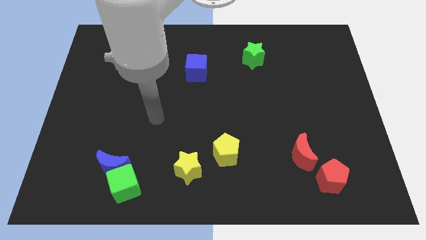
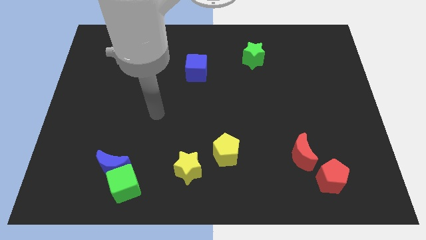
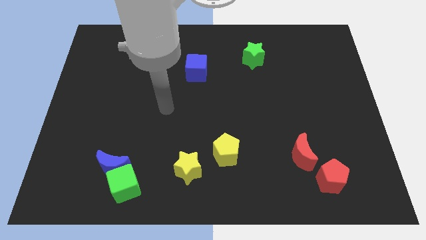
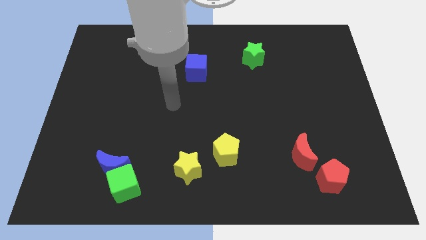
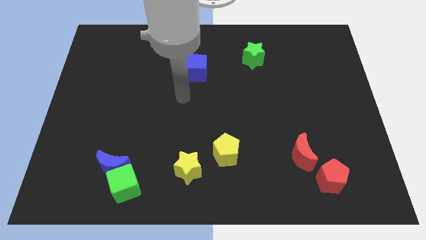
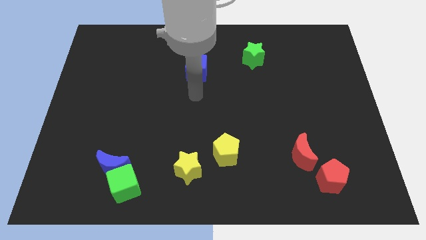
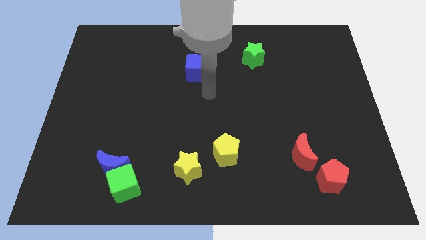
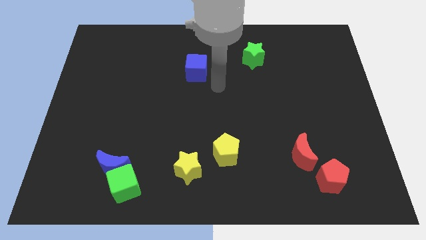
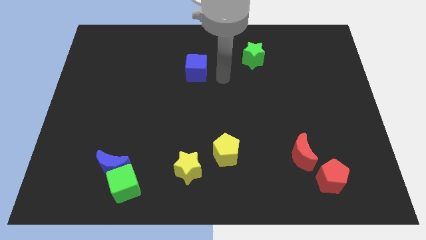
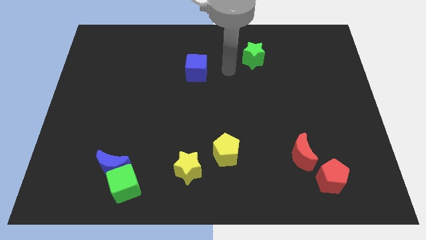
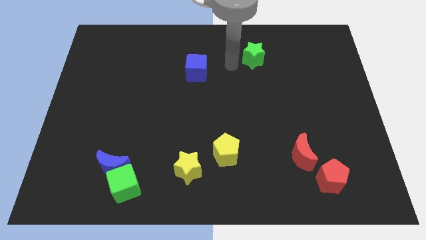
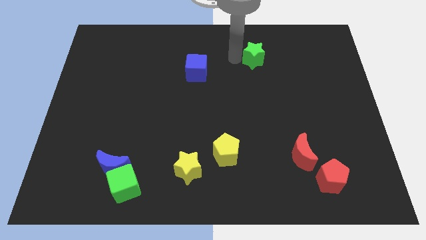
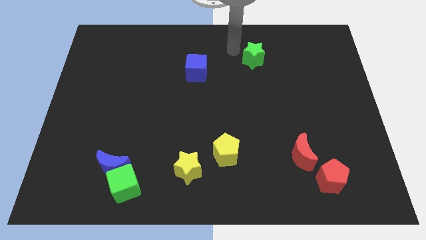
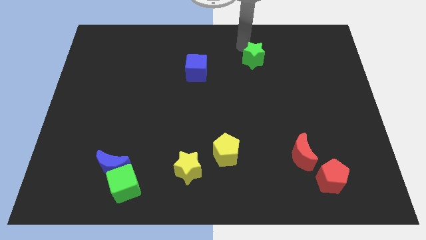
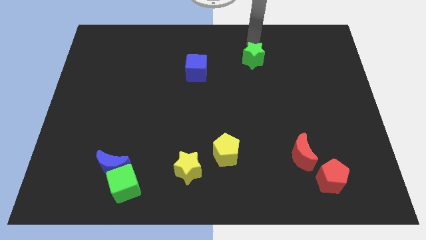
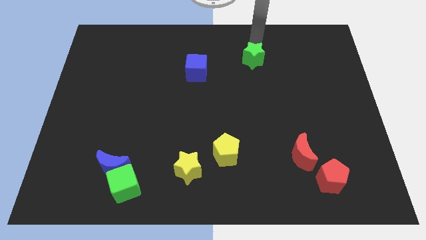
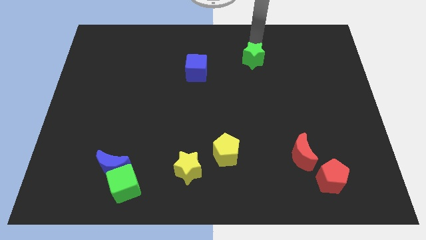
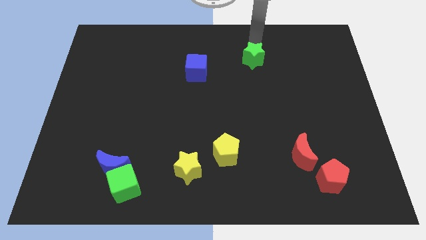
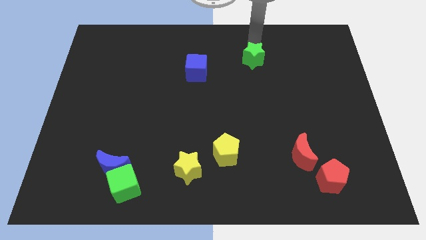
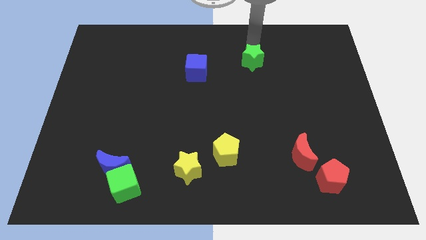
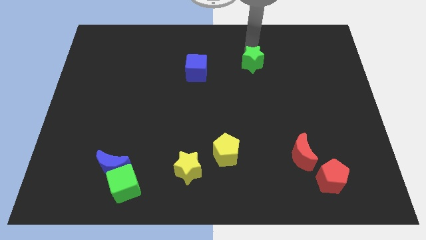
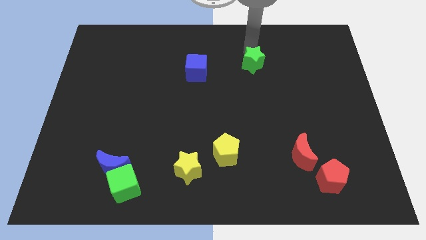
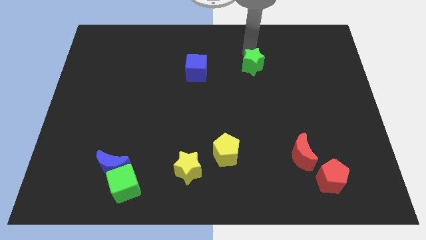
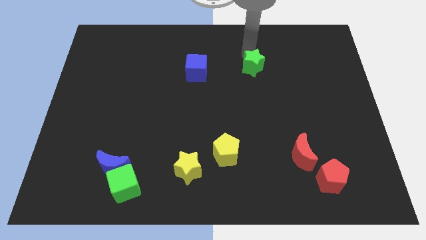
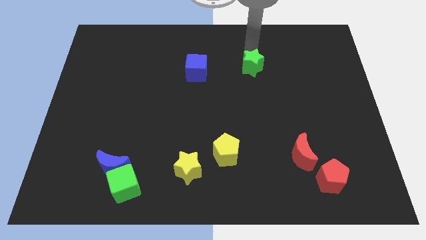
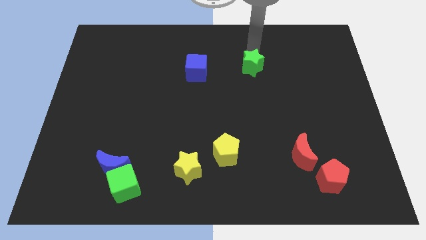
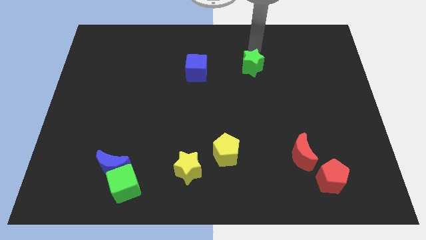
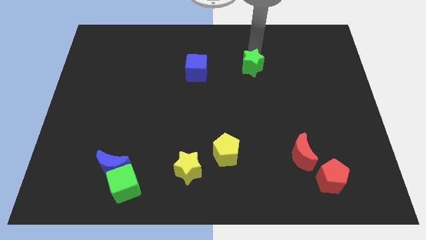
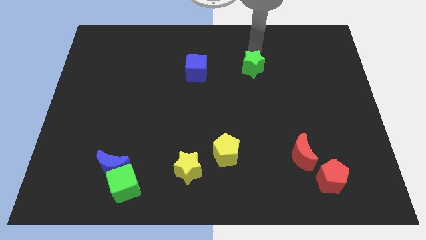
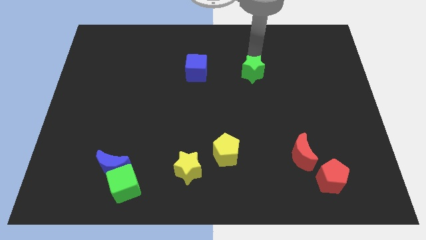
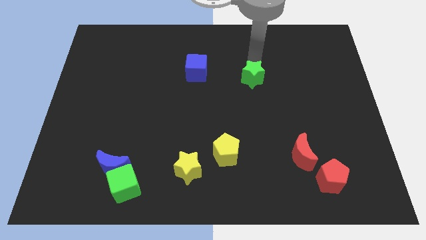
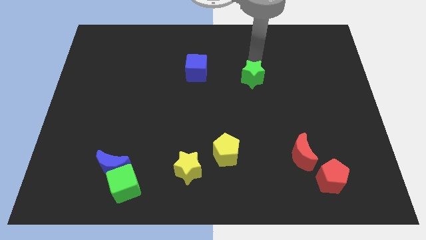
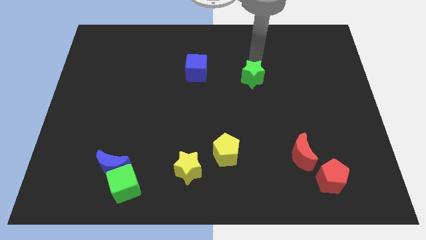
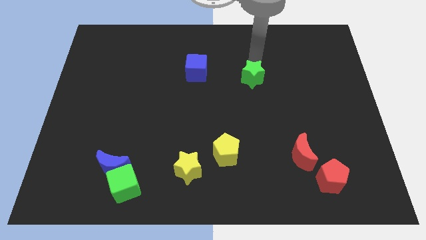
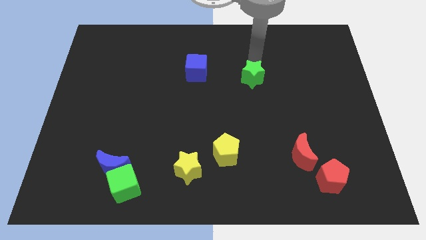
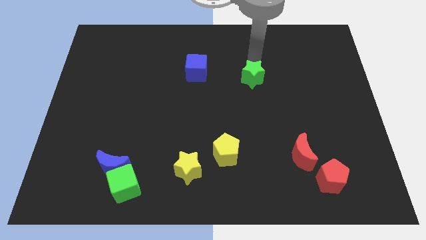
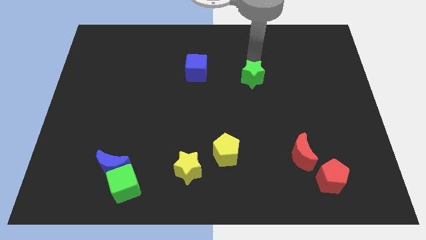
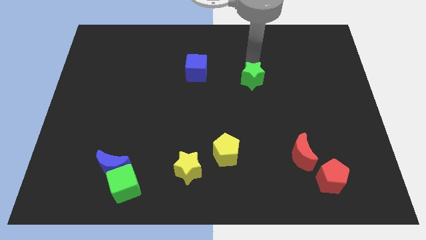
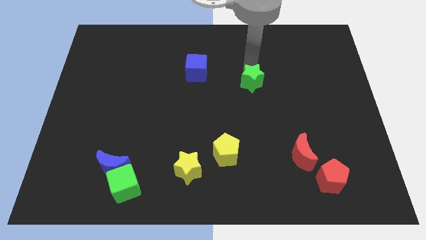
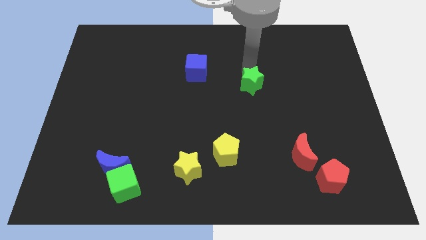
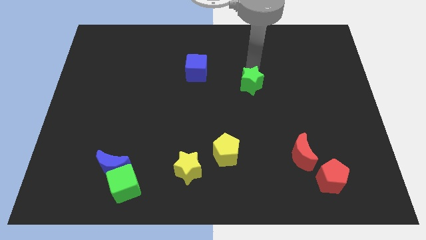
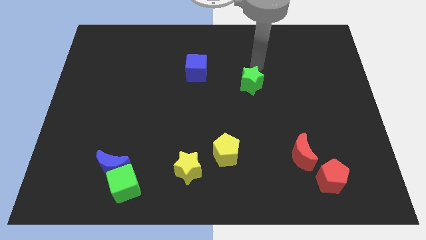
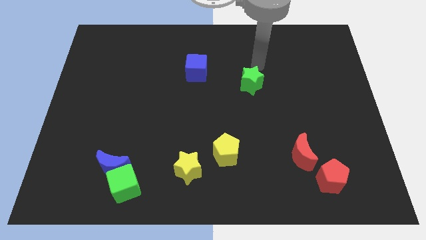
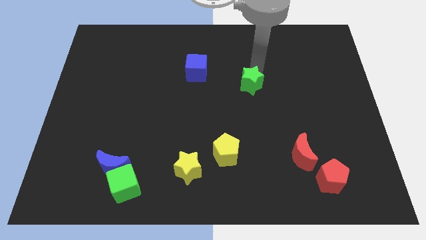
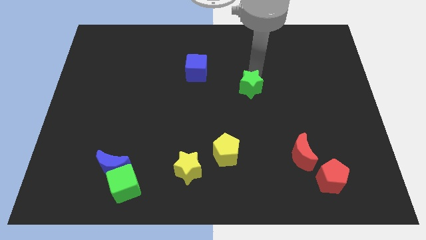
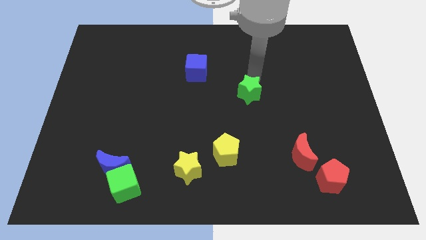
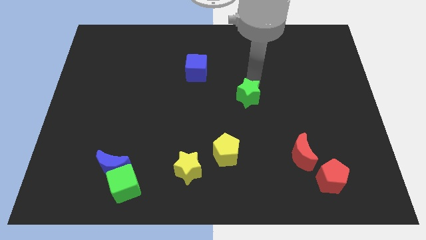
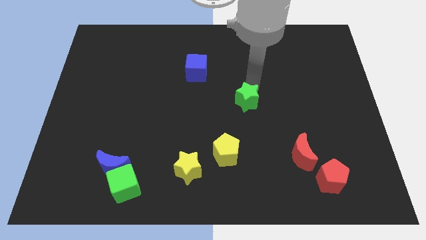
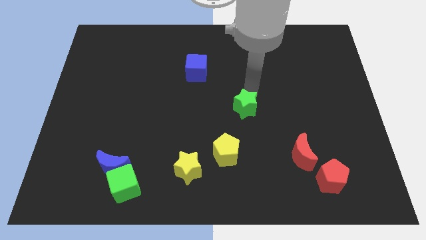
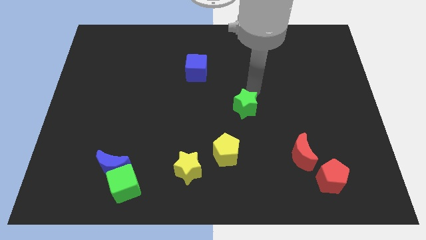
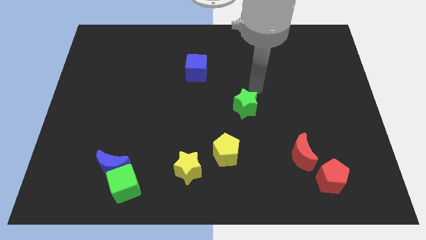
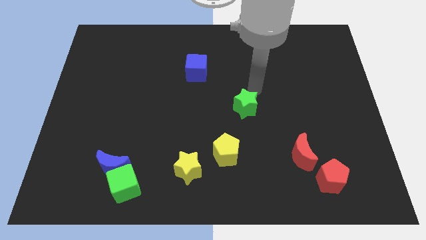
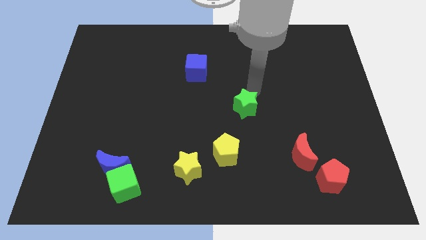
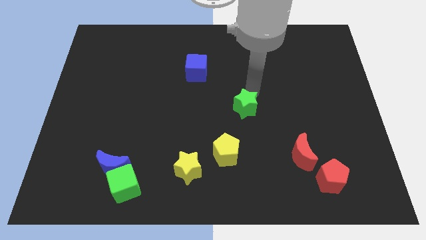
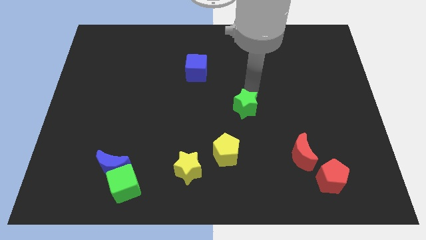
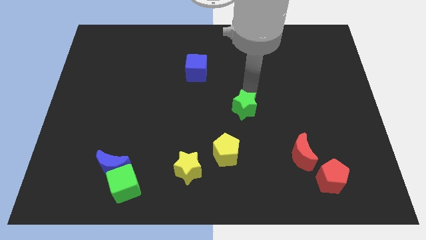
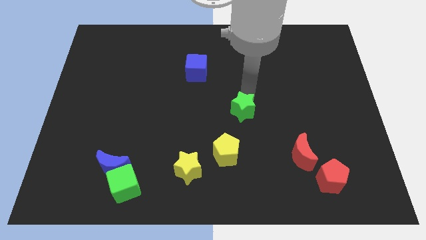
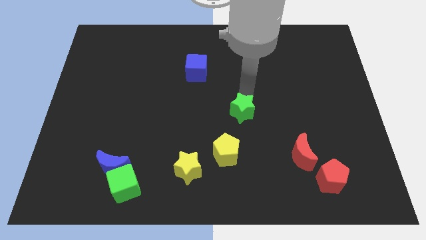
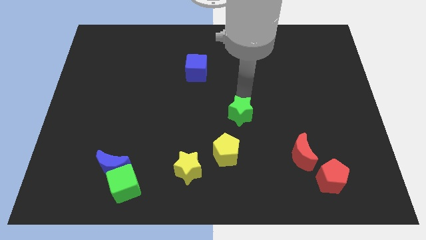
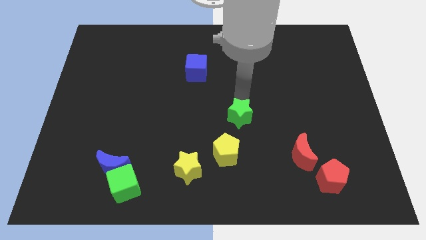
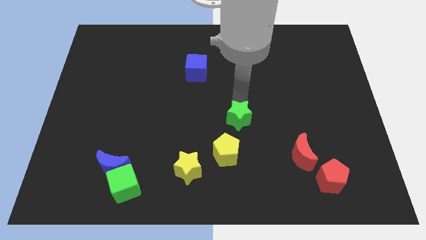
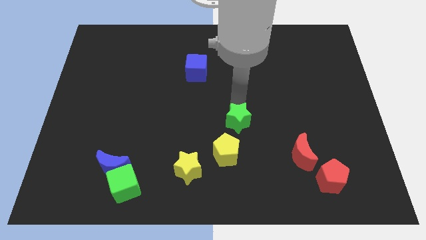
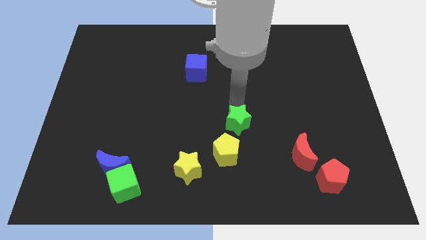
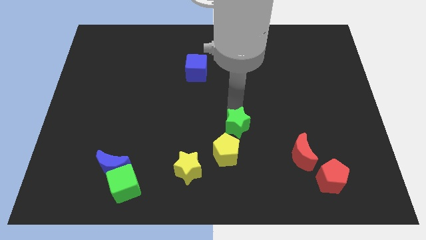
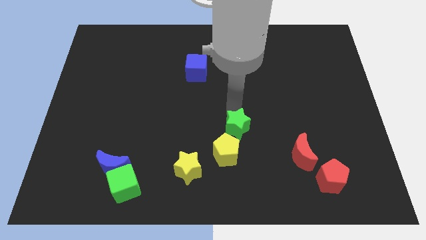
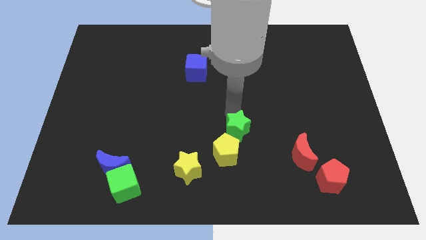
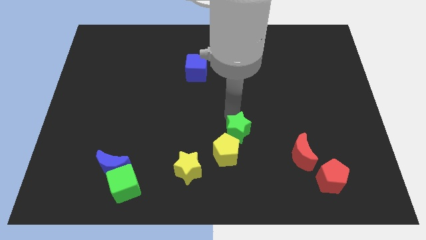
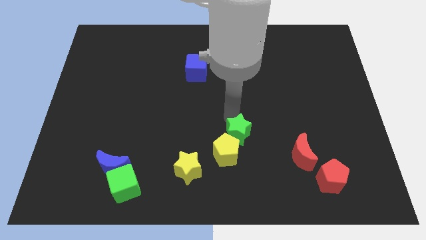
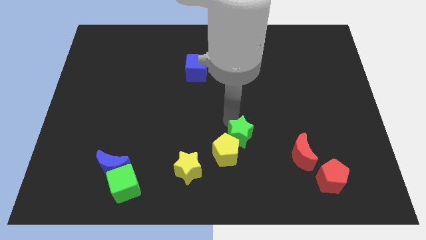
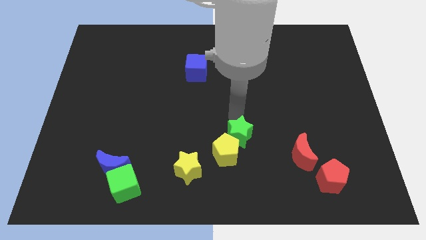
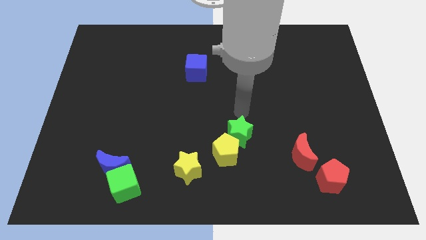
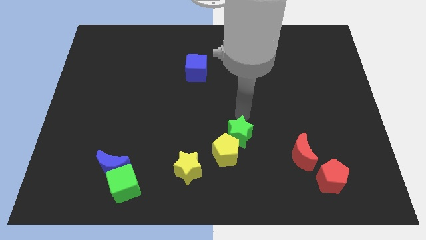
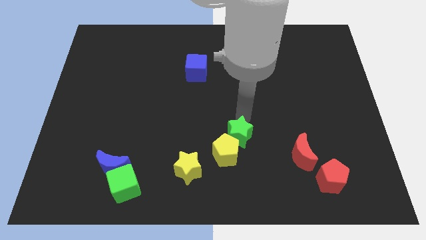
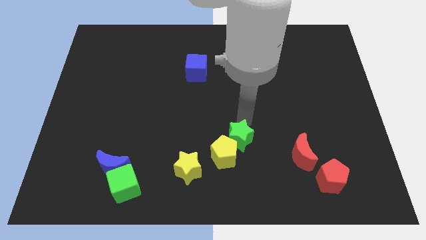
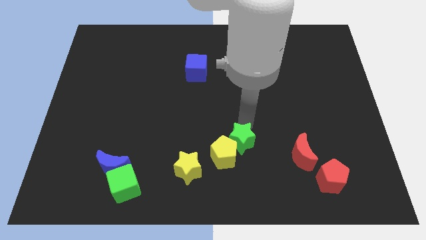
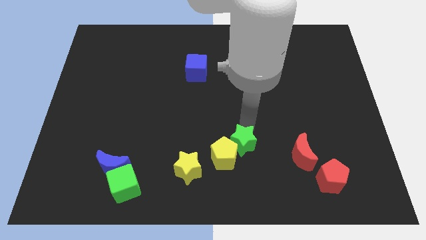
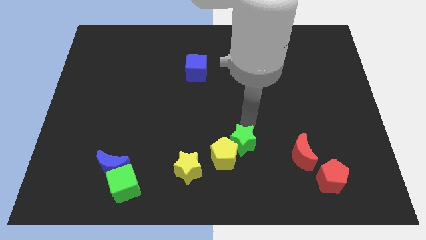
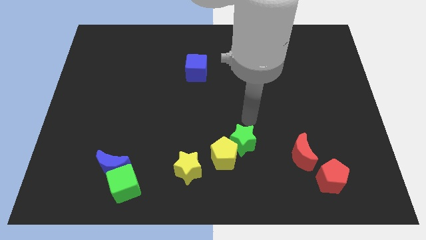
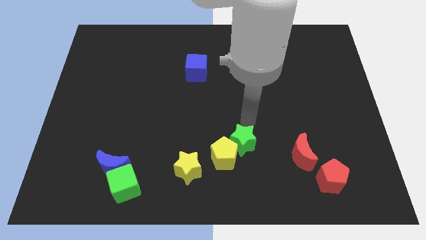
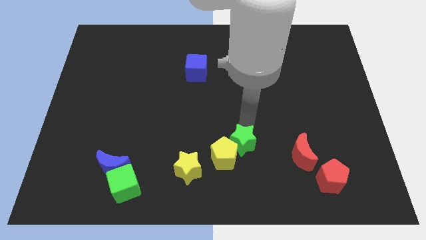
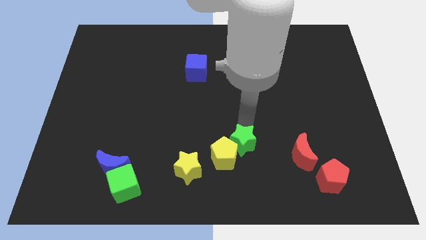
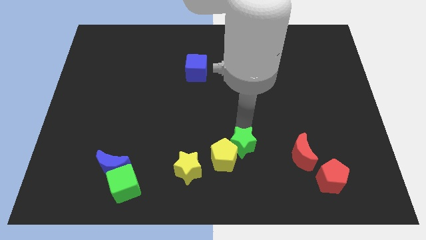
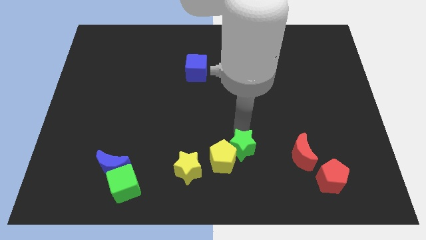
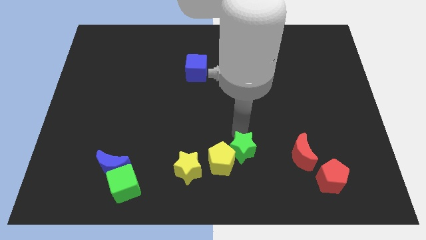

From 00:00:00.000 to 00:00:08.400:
slide the green star to the right side of the yellow star
